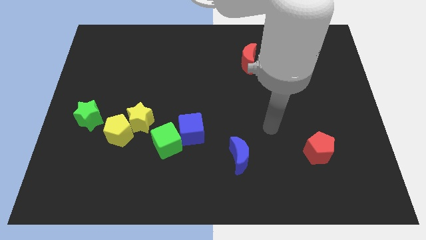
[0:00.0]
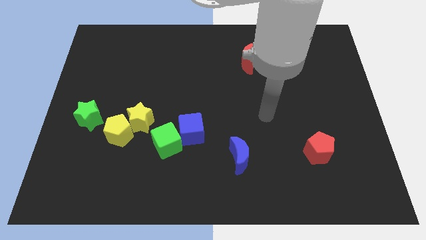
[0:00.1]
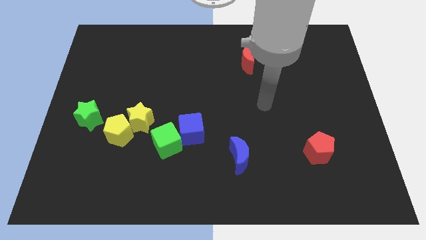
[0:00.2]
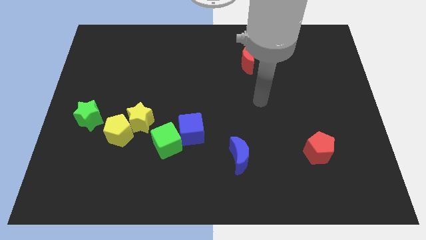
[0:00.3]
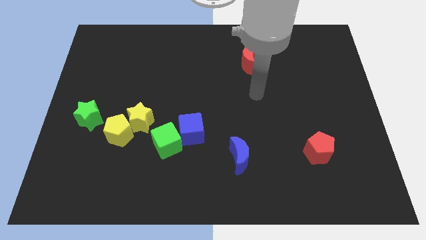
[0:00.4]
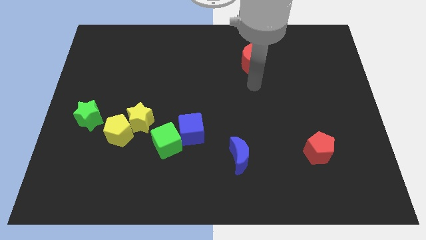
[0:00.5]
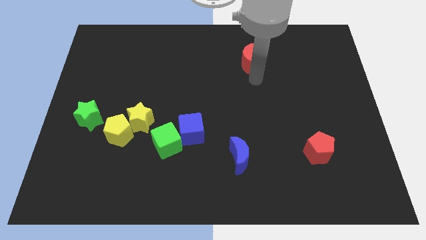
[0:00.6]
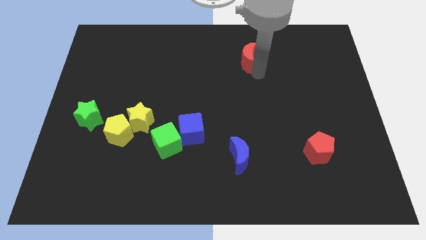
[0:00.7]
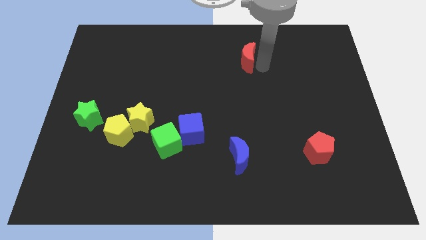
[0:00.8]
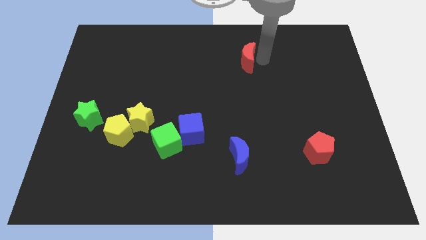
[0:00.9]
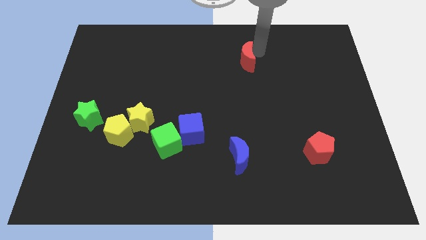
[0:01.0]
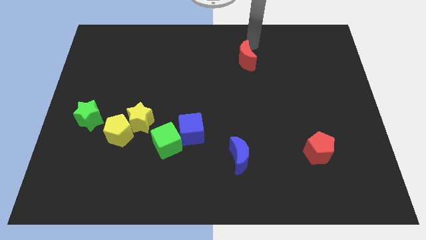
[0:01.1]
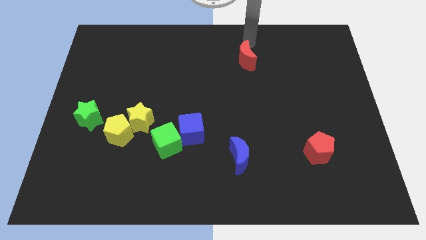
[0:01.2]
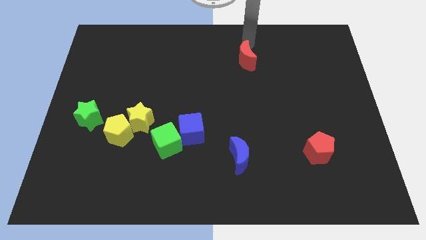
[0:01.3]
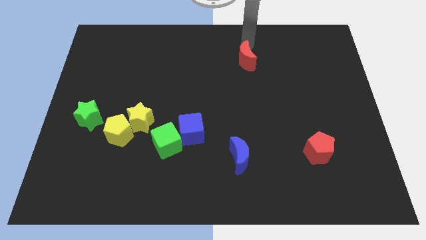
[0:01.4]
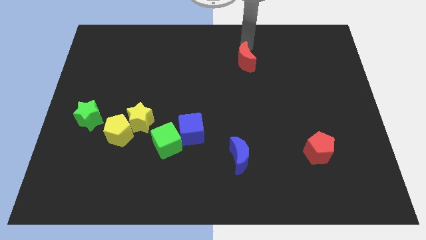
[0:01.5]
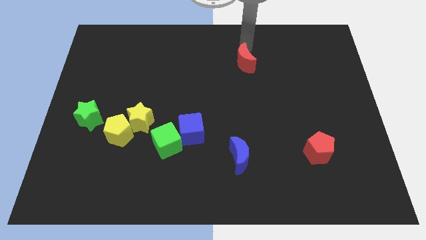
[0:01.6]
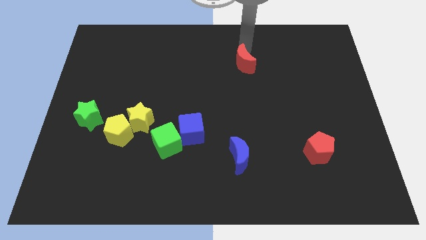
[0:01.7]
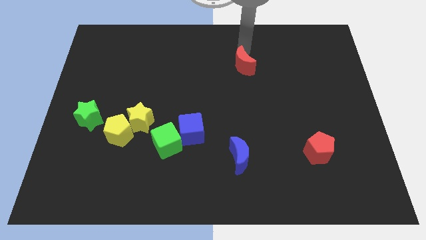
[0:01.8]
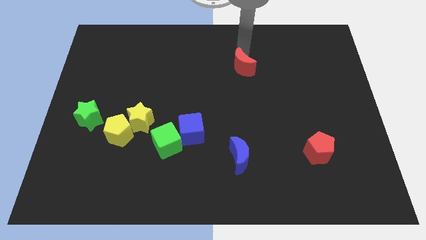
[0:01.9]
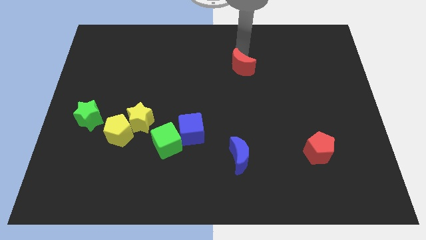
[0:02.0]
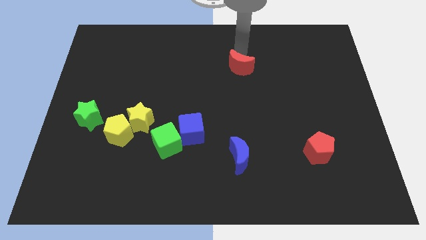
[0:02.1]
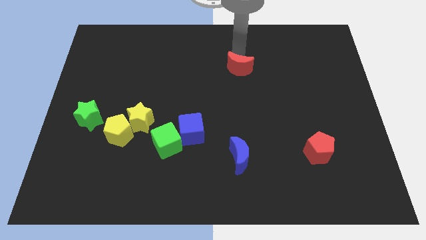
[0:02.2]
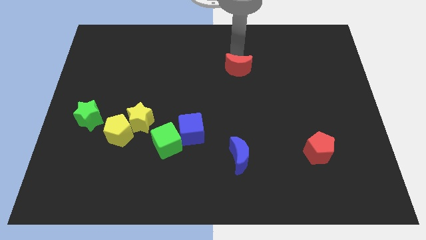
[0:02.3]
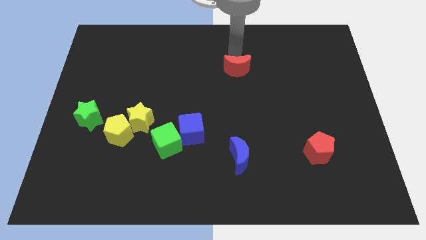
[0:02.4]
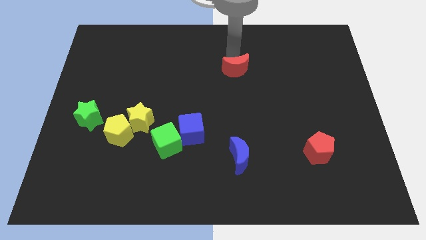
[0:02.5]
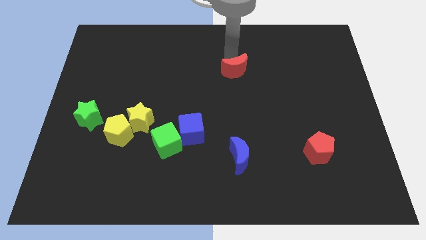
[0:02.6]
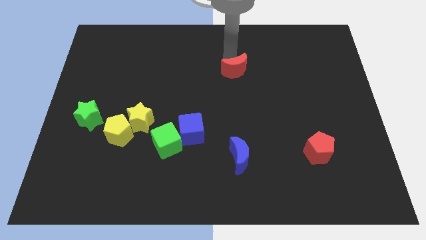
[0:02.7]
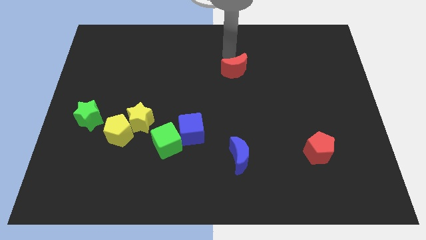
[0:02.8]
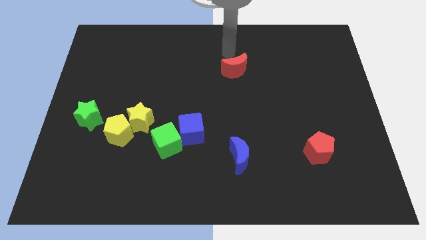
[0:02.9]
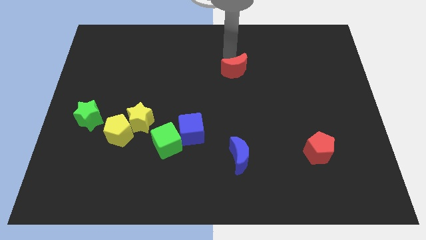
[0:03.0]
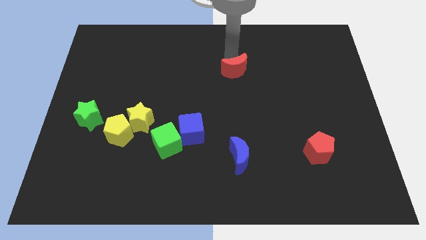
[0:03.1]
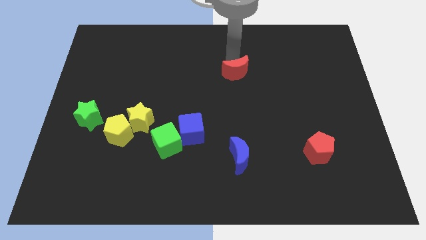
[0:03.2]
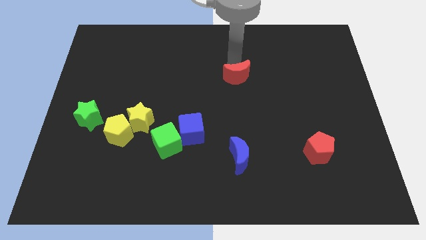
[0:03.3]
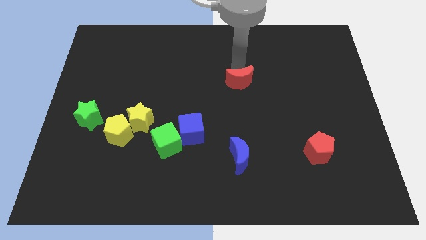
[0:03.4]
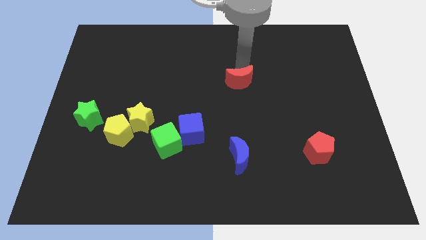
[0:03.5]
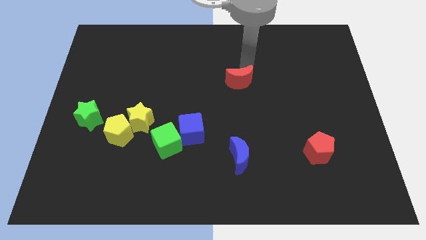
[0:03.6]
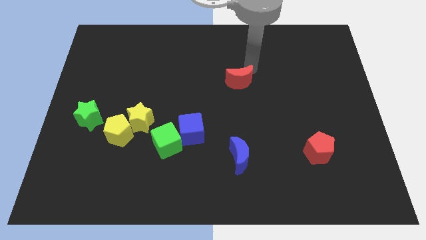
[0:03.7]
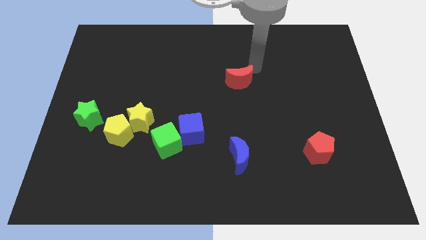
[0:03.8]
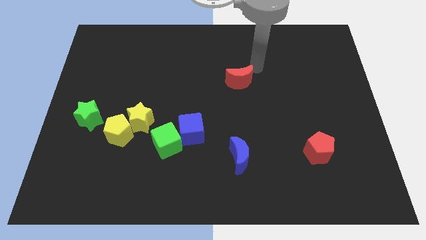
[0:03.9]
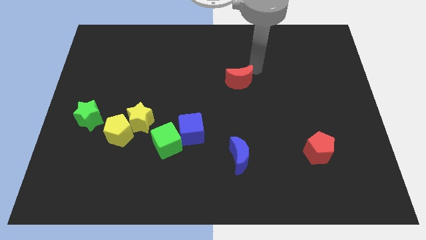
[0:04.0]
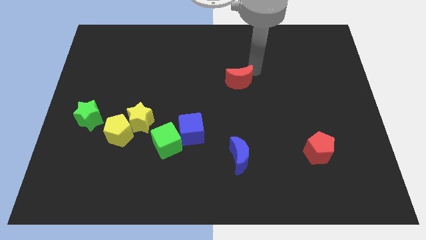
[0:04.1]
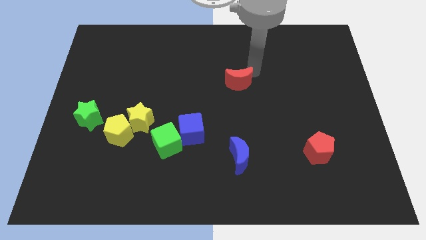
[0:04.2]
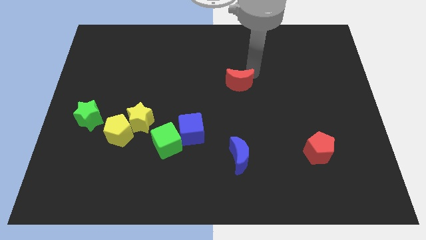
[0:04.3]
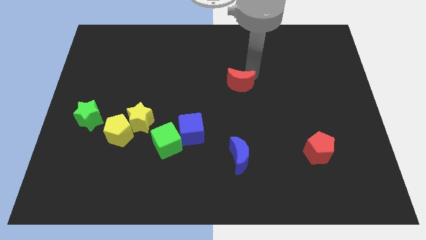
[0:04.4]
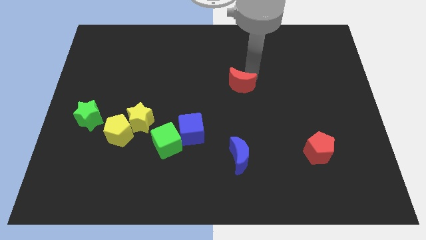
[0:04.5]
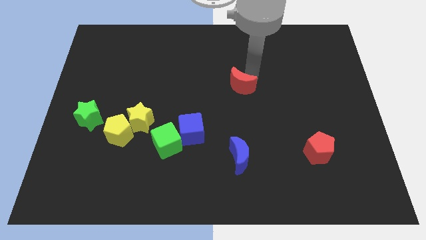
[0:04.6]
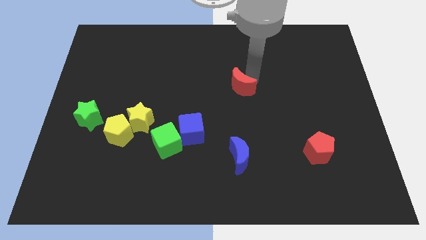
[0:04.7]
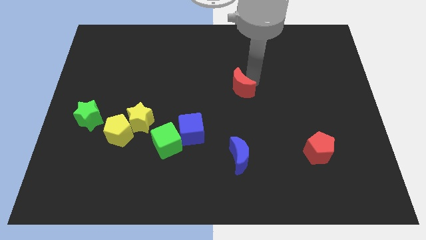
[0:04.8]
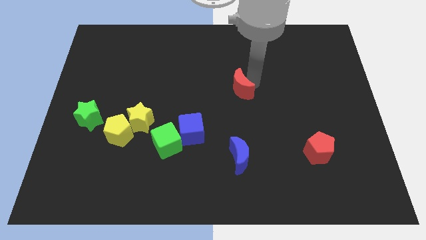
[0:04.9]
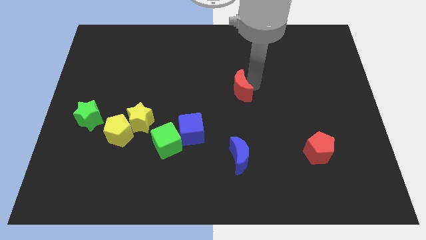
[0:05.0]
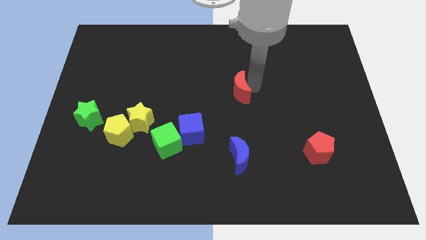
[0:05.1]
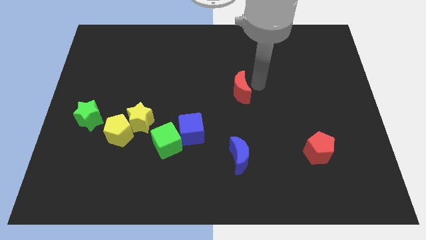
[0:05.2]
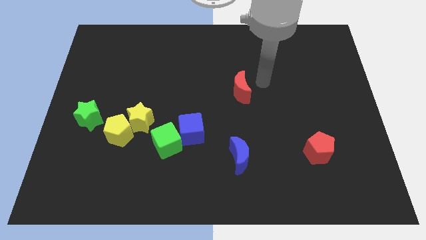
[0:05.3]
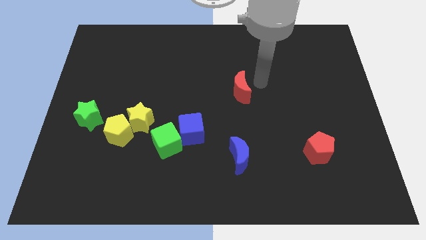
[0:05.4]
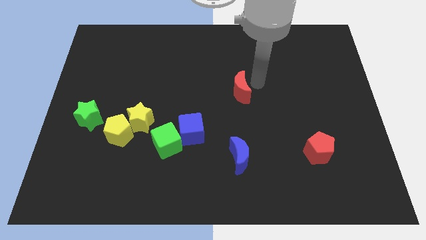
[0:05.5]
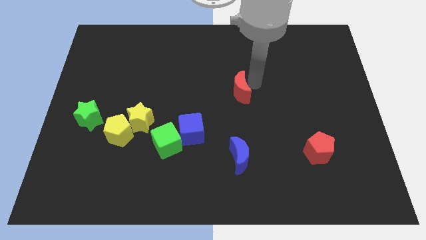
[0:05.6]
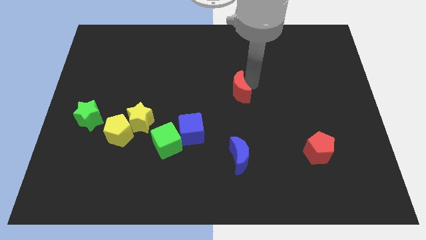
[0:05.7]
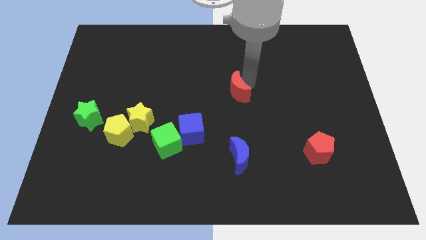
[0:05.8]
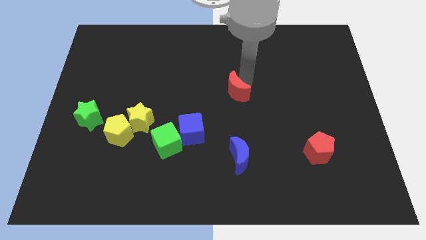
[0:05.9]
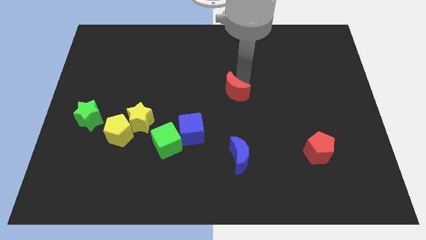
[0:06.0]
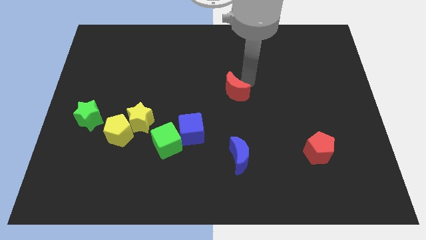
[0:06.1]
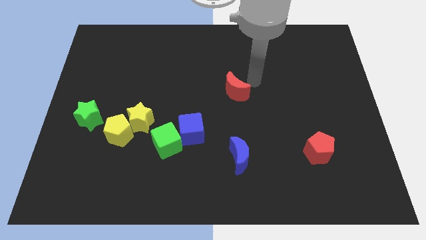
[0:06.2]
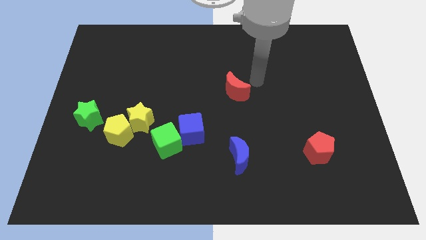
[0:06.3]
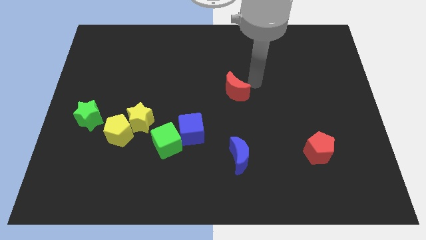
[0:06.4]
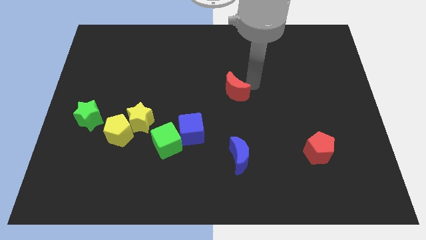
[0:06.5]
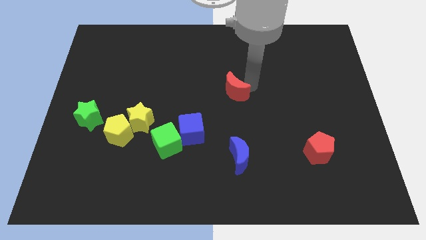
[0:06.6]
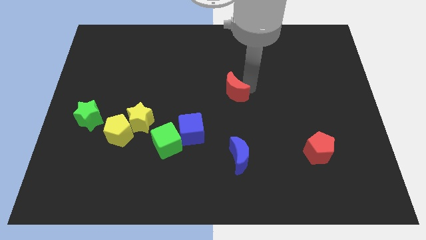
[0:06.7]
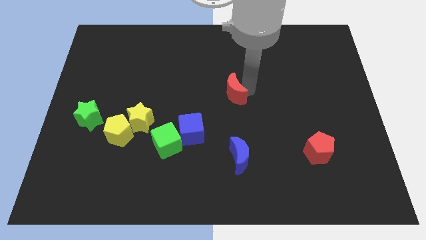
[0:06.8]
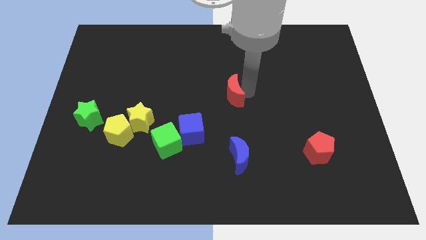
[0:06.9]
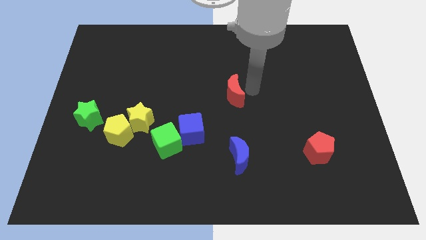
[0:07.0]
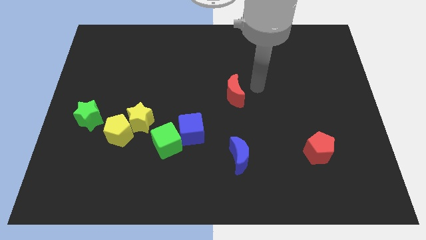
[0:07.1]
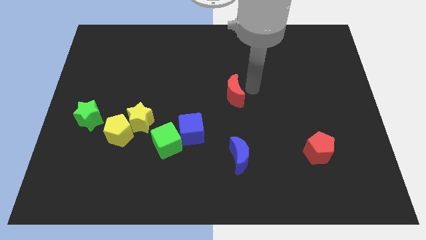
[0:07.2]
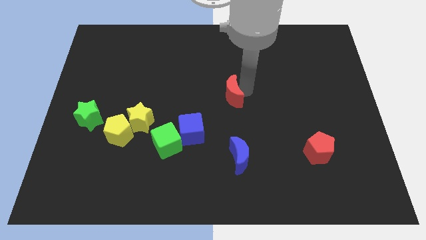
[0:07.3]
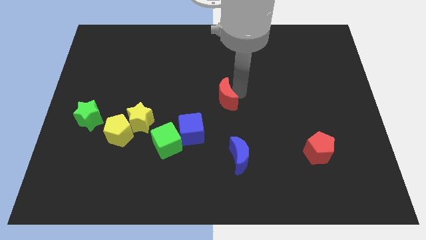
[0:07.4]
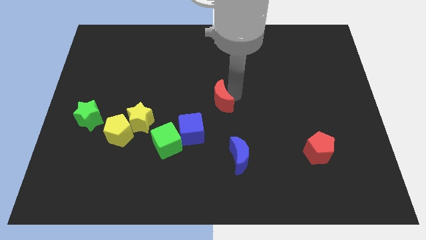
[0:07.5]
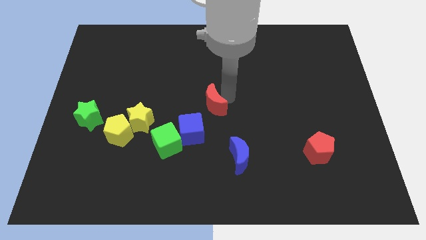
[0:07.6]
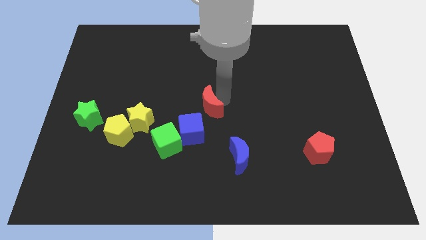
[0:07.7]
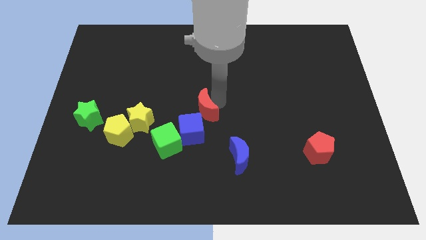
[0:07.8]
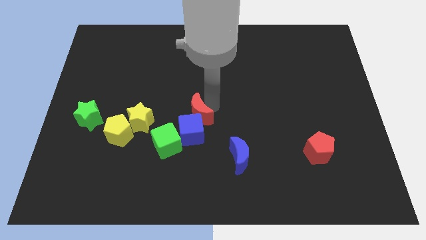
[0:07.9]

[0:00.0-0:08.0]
move the red moon diagonally downwards and to the left
